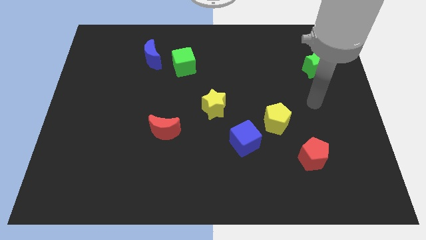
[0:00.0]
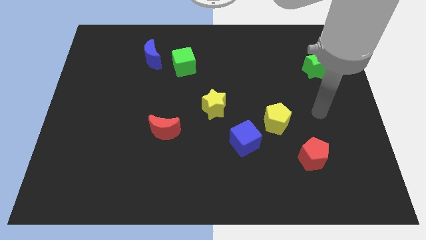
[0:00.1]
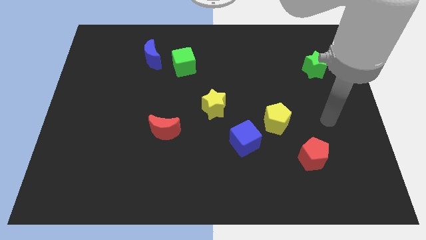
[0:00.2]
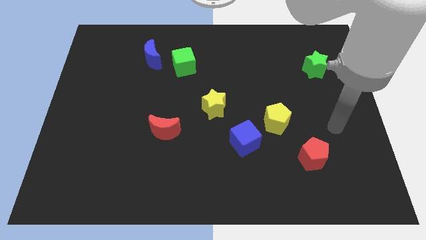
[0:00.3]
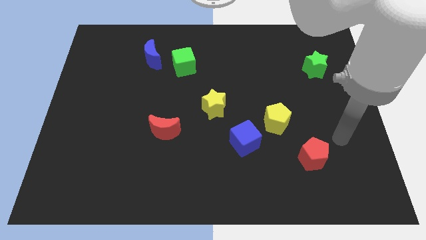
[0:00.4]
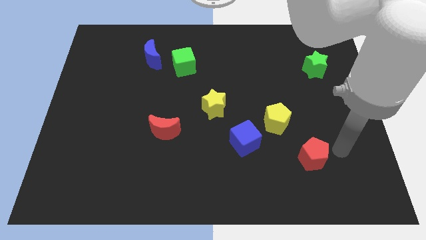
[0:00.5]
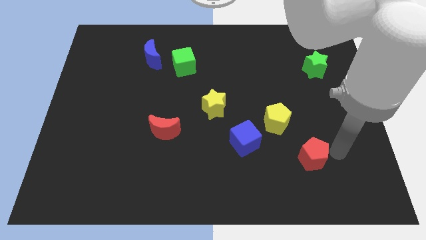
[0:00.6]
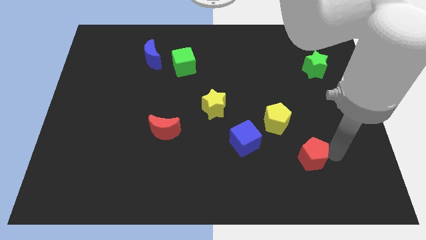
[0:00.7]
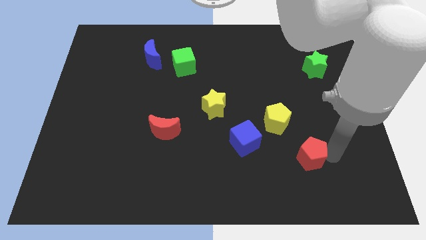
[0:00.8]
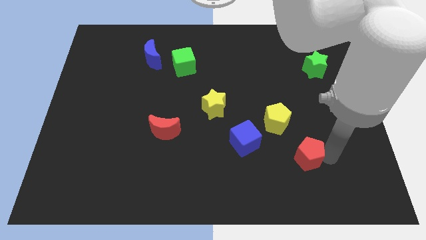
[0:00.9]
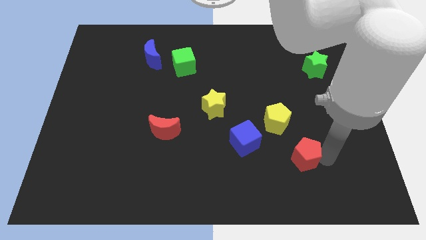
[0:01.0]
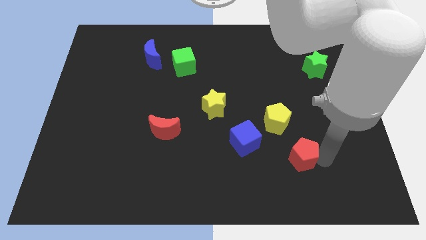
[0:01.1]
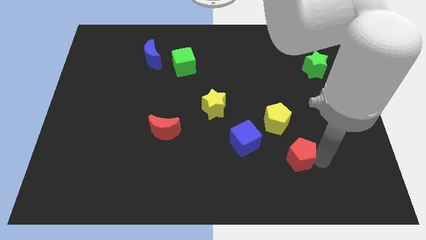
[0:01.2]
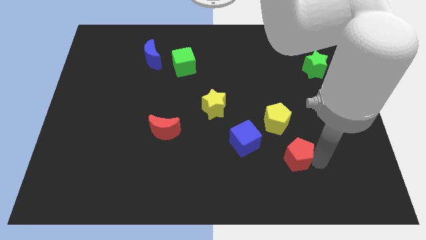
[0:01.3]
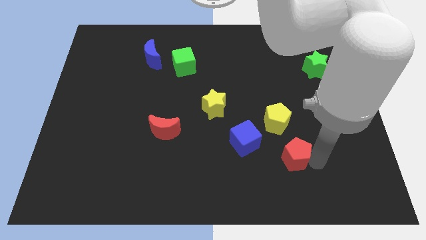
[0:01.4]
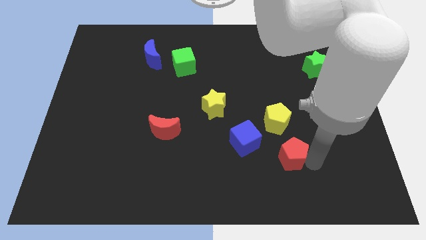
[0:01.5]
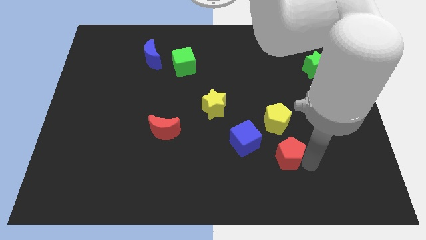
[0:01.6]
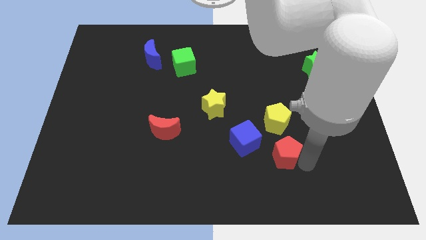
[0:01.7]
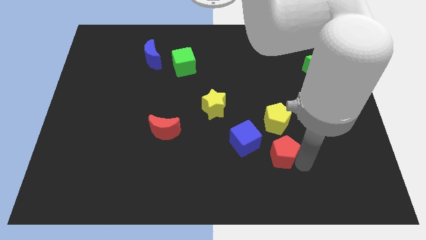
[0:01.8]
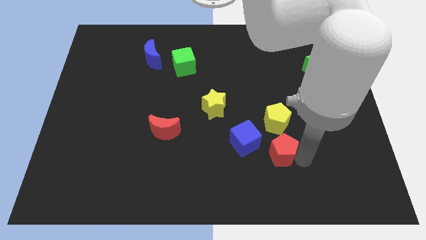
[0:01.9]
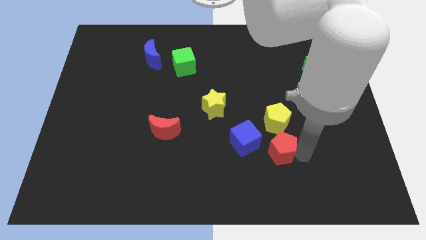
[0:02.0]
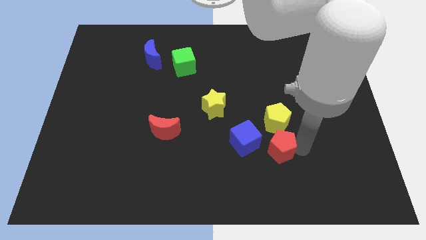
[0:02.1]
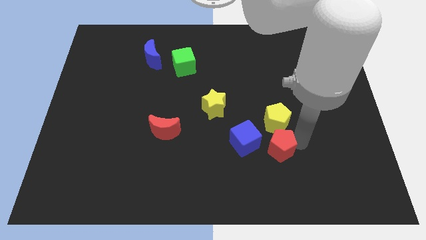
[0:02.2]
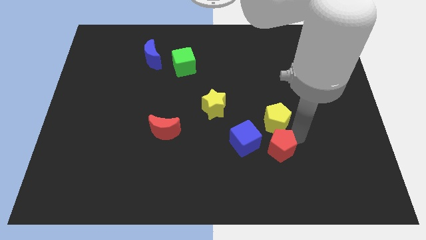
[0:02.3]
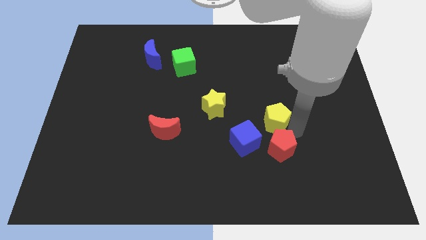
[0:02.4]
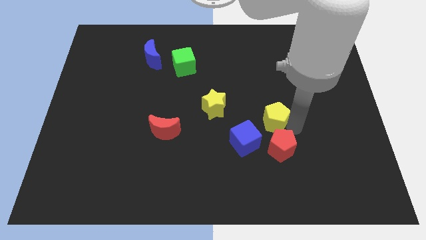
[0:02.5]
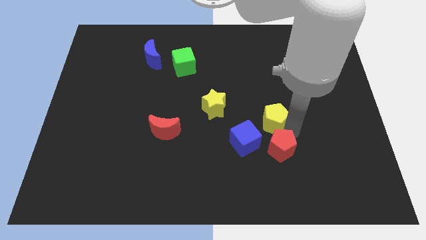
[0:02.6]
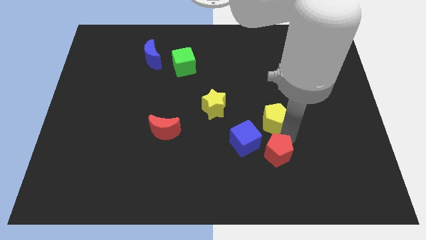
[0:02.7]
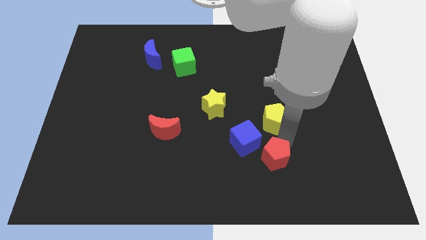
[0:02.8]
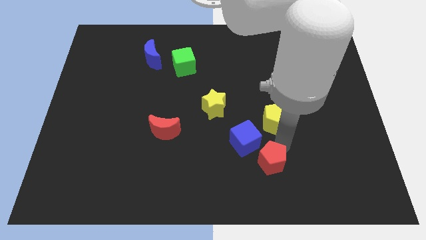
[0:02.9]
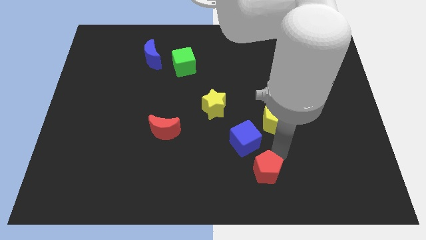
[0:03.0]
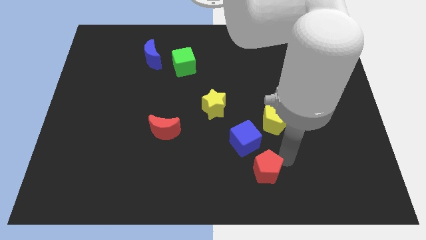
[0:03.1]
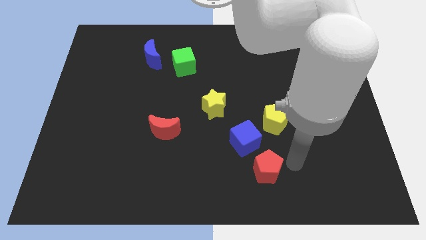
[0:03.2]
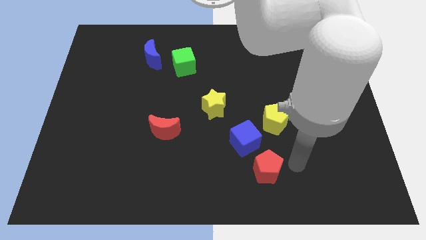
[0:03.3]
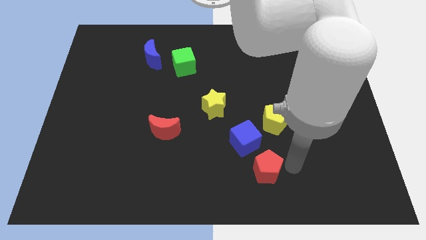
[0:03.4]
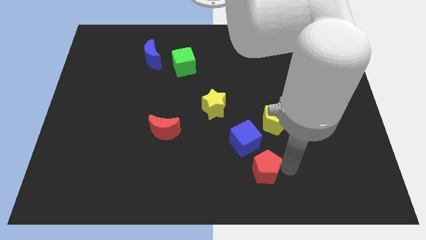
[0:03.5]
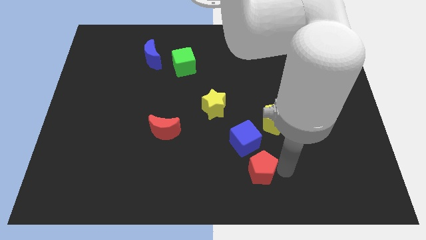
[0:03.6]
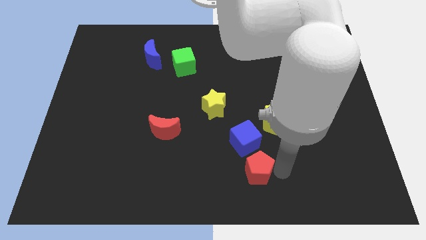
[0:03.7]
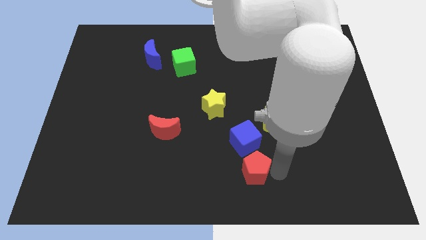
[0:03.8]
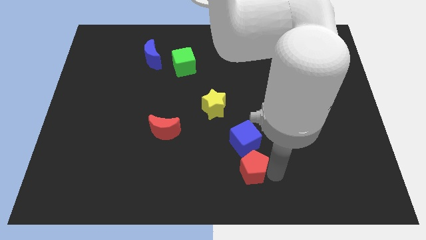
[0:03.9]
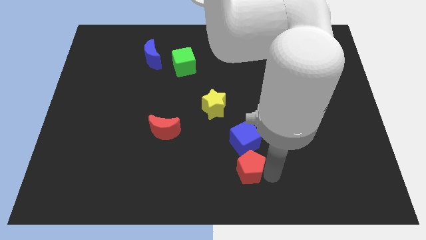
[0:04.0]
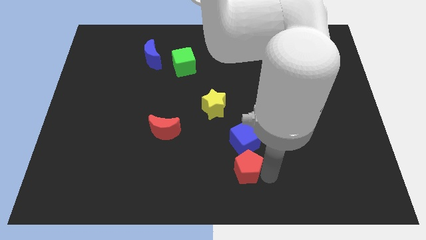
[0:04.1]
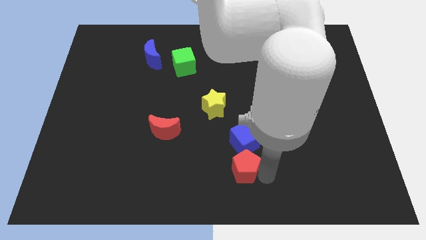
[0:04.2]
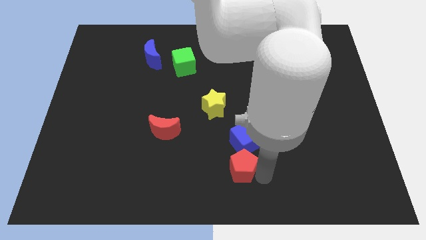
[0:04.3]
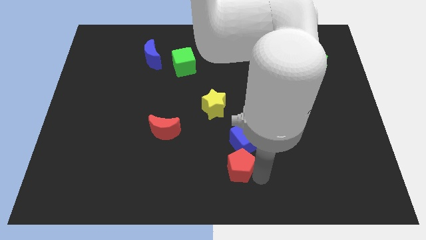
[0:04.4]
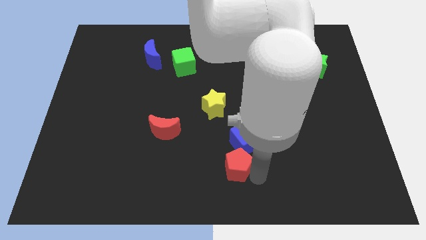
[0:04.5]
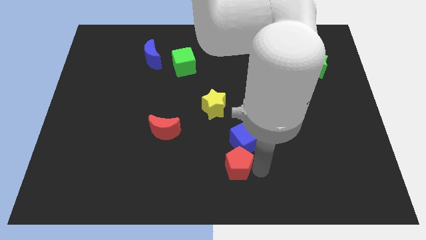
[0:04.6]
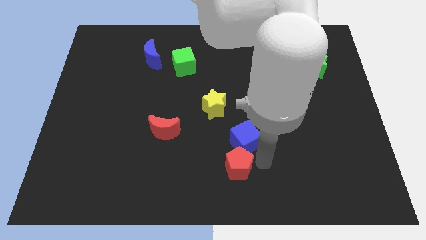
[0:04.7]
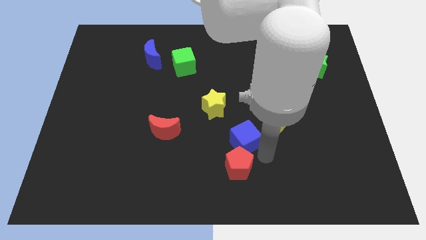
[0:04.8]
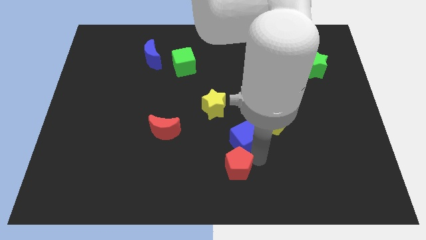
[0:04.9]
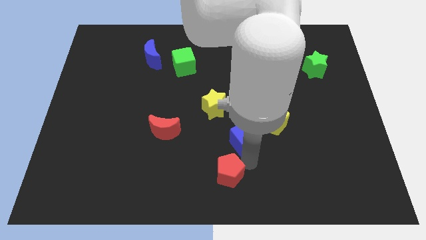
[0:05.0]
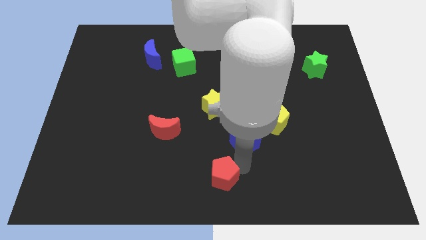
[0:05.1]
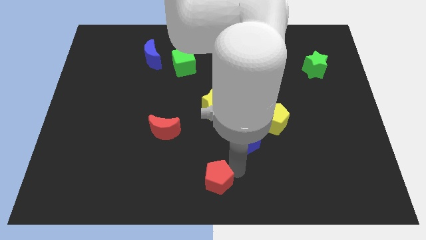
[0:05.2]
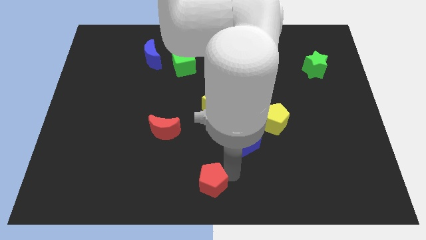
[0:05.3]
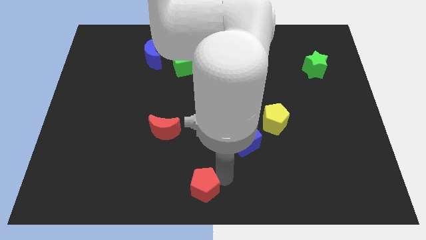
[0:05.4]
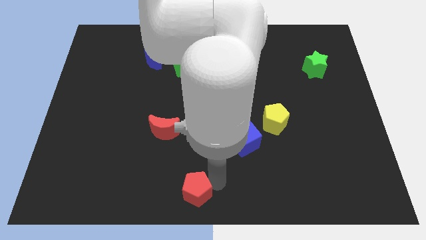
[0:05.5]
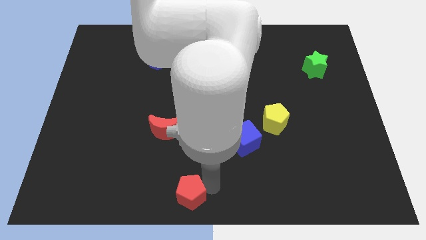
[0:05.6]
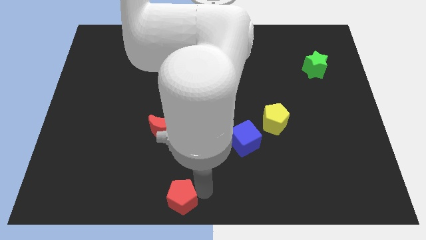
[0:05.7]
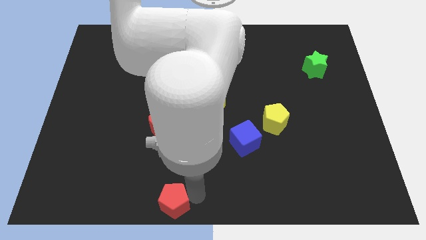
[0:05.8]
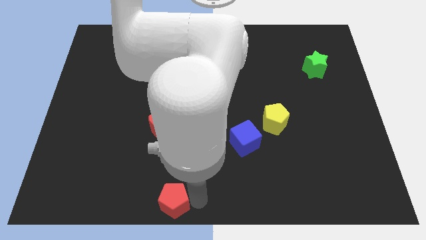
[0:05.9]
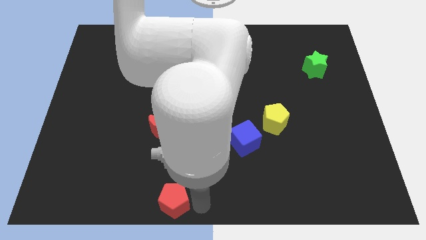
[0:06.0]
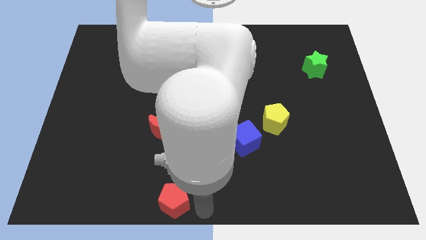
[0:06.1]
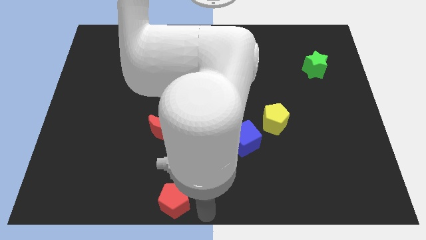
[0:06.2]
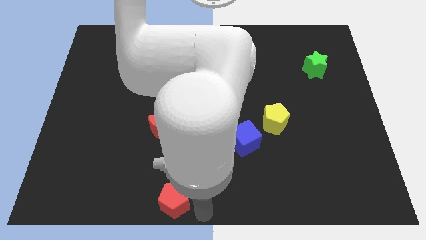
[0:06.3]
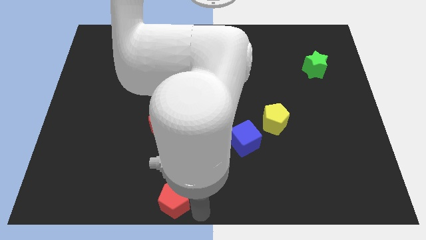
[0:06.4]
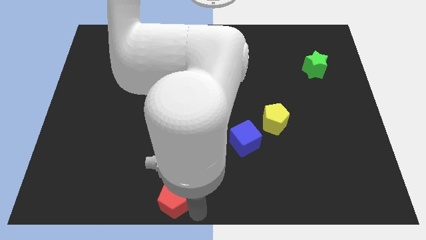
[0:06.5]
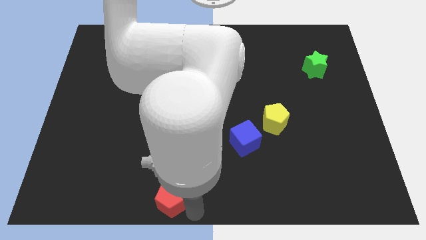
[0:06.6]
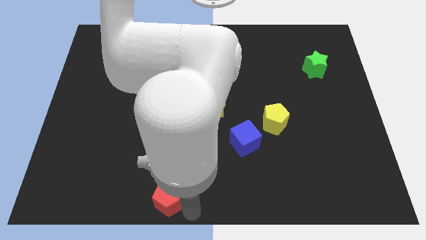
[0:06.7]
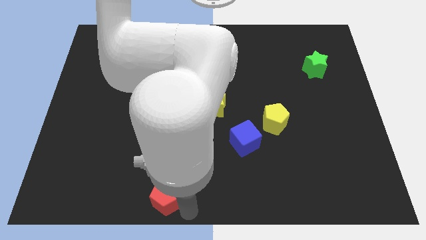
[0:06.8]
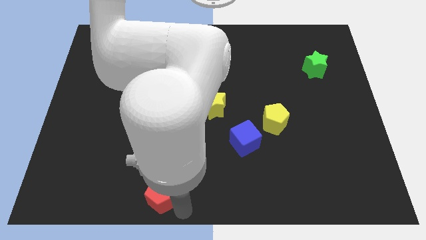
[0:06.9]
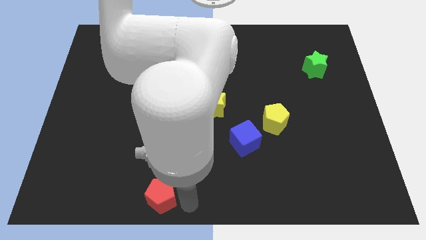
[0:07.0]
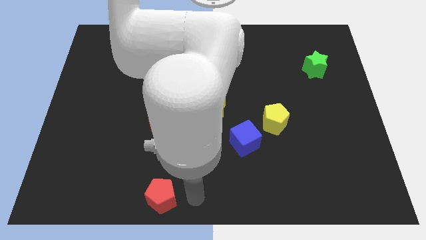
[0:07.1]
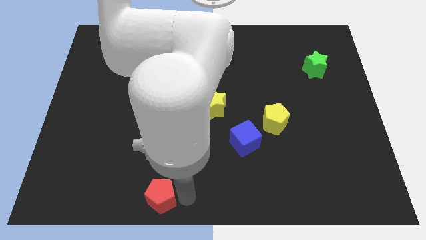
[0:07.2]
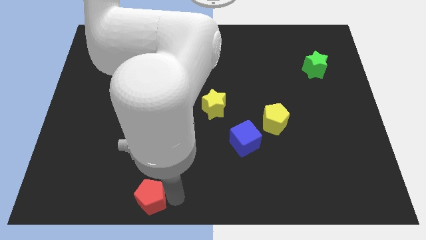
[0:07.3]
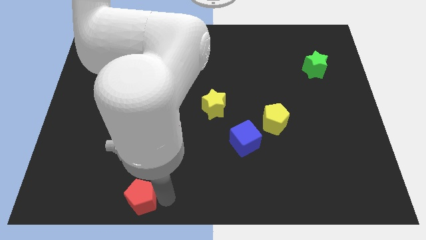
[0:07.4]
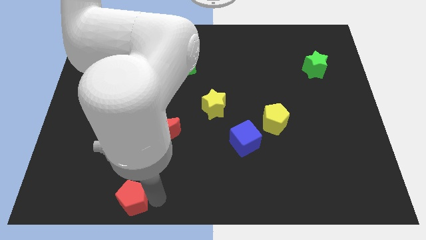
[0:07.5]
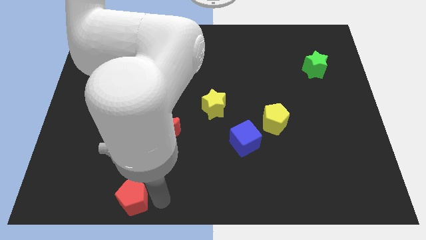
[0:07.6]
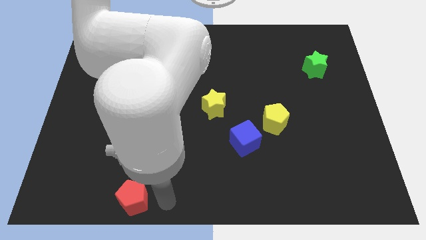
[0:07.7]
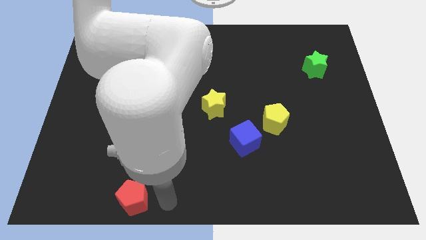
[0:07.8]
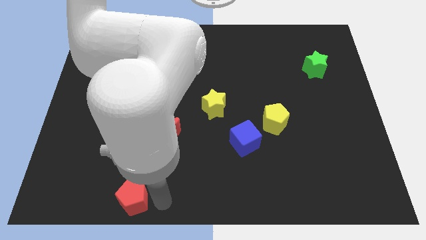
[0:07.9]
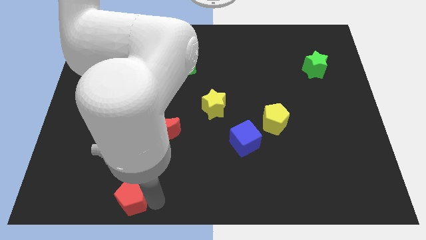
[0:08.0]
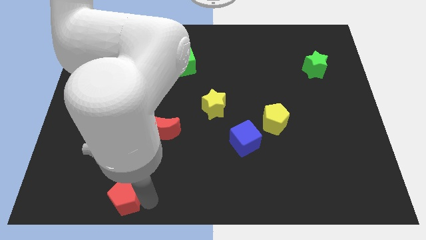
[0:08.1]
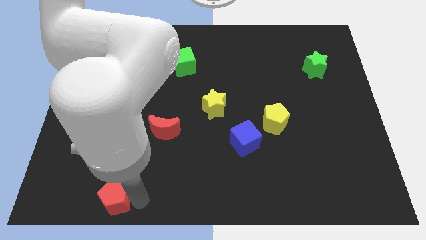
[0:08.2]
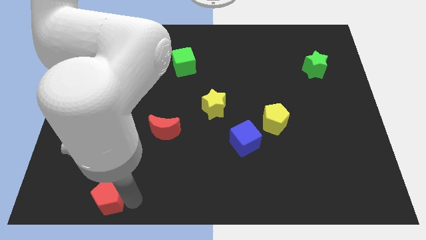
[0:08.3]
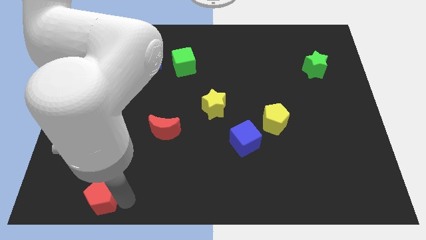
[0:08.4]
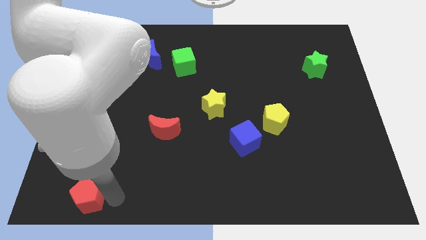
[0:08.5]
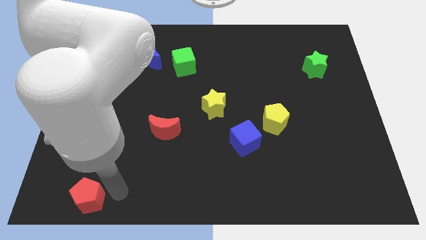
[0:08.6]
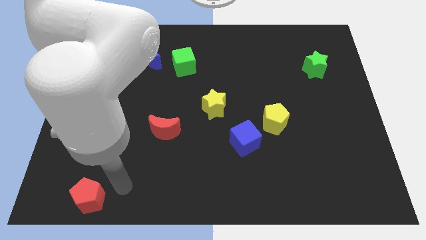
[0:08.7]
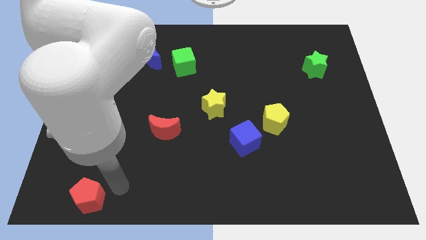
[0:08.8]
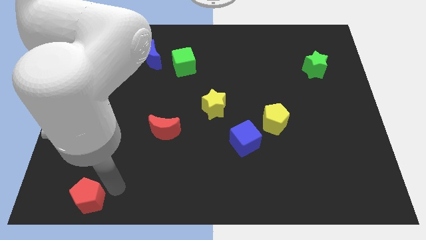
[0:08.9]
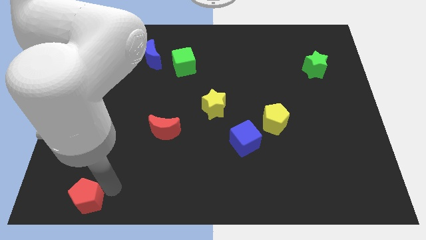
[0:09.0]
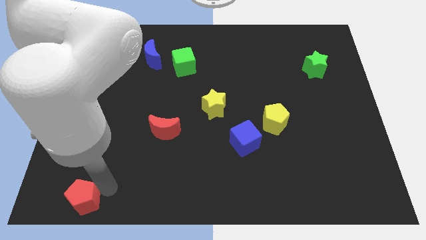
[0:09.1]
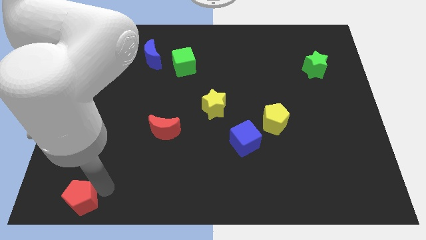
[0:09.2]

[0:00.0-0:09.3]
put the red pentagon to the lower left corner
